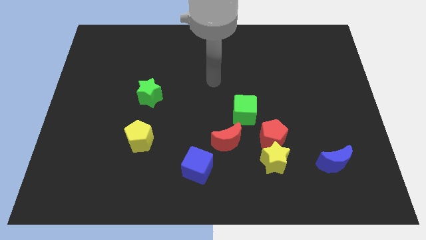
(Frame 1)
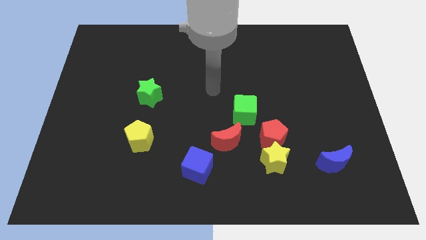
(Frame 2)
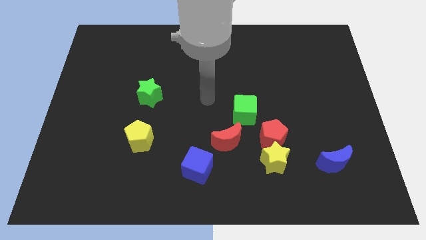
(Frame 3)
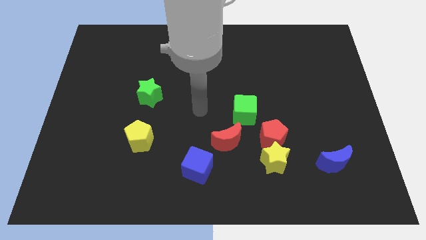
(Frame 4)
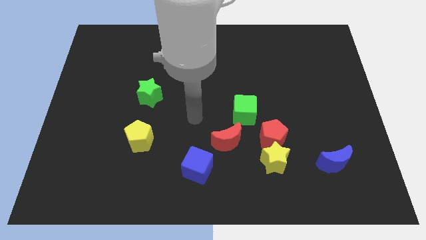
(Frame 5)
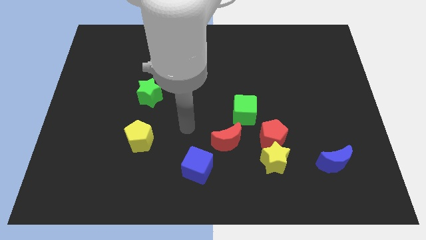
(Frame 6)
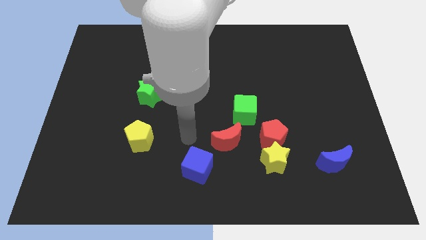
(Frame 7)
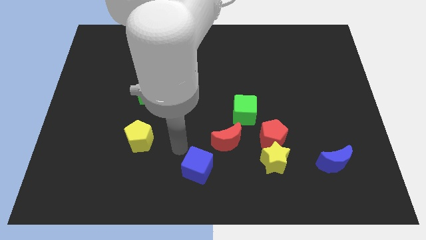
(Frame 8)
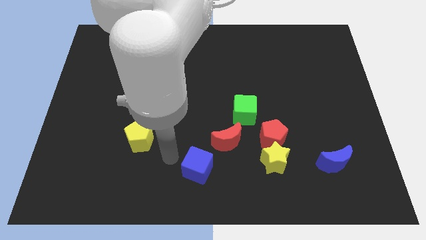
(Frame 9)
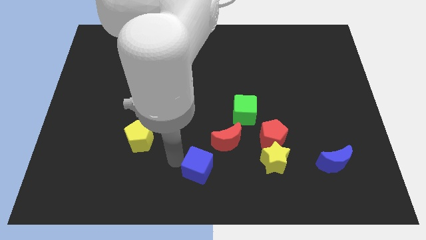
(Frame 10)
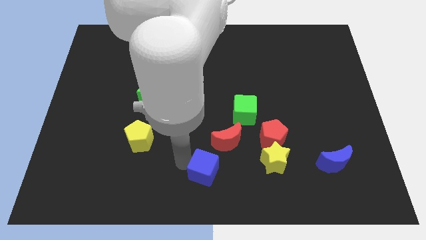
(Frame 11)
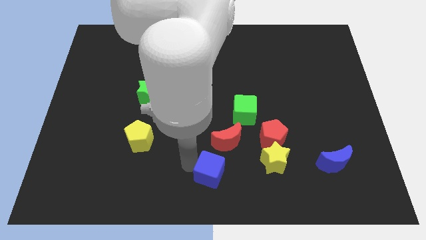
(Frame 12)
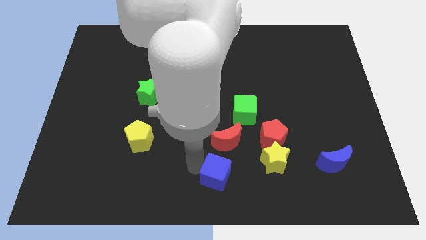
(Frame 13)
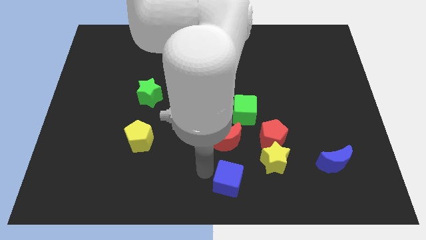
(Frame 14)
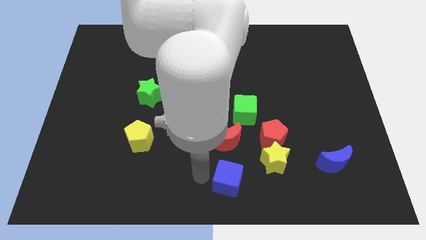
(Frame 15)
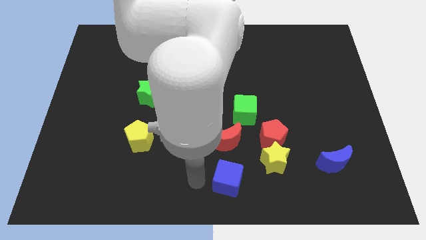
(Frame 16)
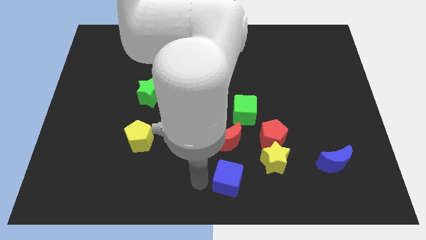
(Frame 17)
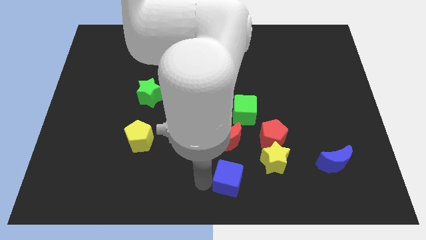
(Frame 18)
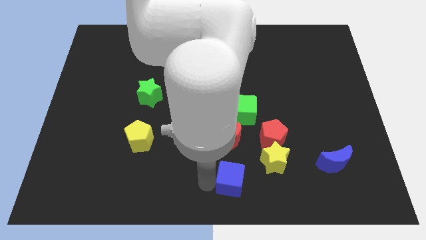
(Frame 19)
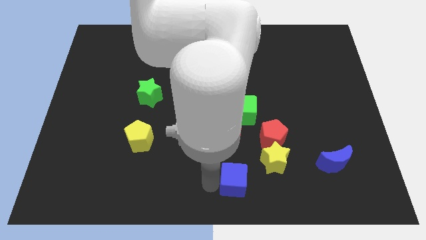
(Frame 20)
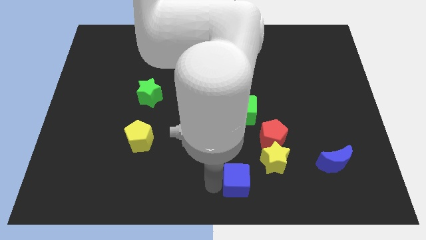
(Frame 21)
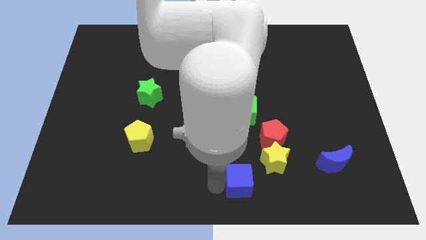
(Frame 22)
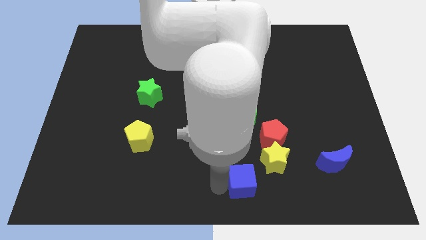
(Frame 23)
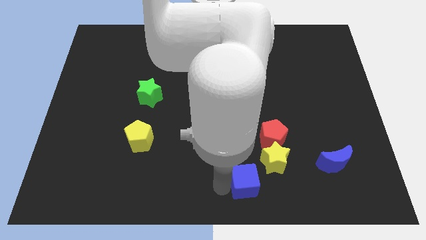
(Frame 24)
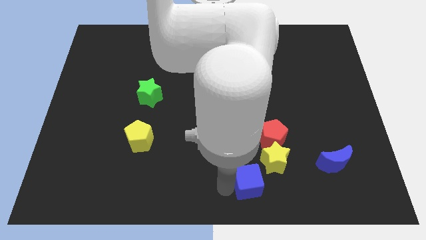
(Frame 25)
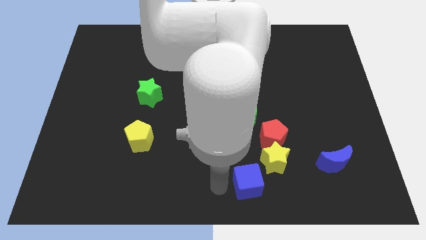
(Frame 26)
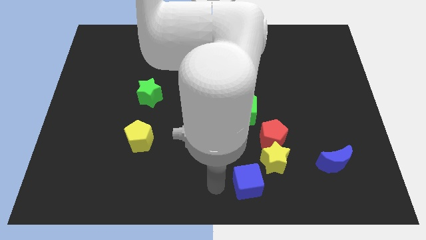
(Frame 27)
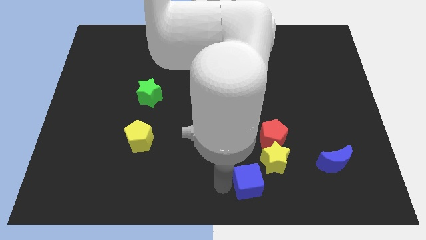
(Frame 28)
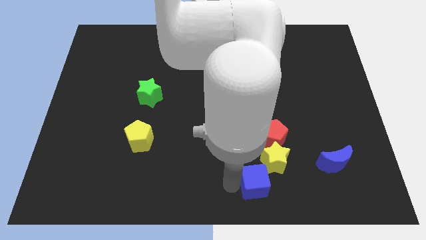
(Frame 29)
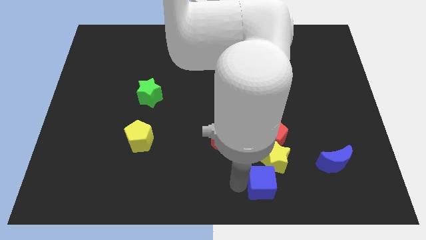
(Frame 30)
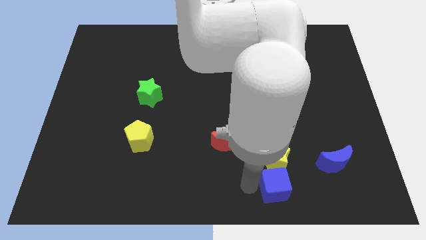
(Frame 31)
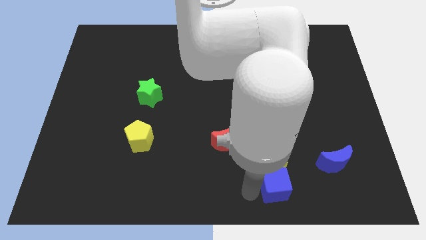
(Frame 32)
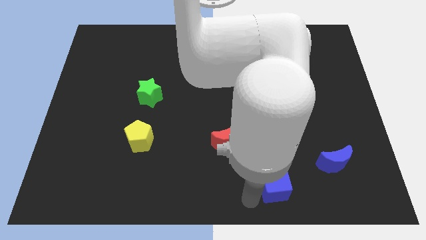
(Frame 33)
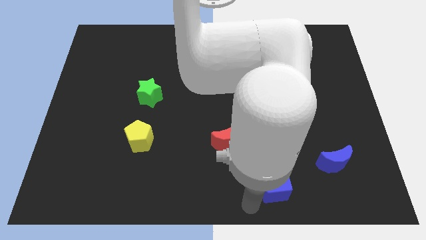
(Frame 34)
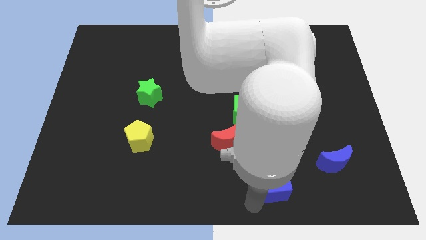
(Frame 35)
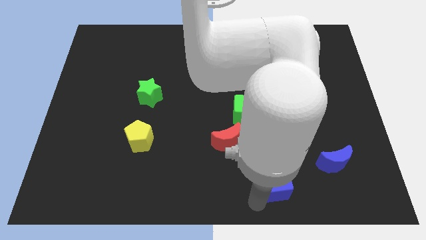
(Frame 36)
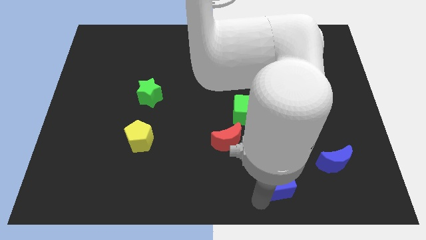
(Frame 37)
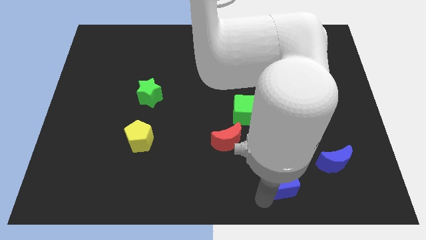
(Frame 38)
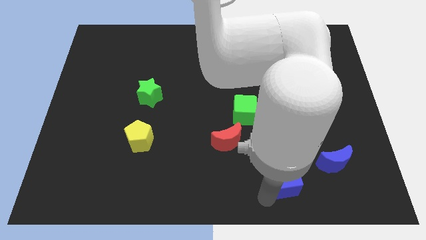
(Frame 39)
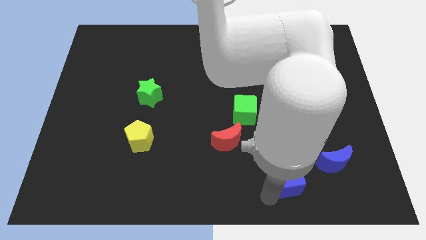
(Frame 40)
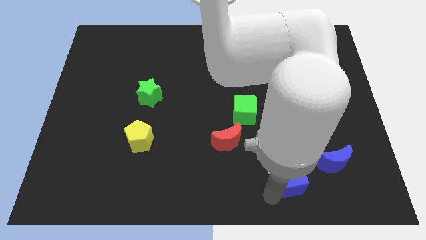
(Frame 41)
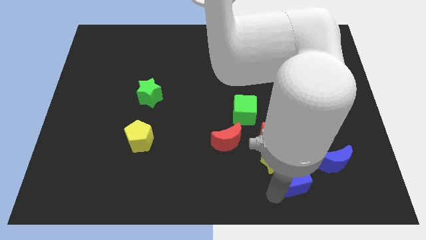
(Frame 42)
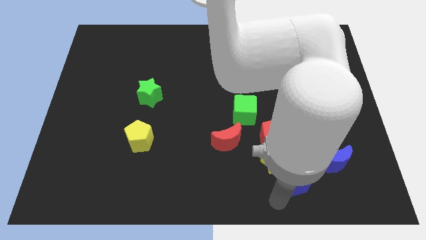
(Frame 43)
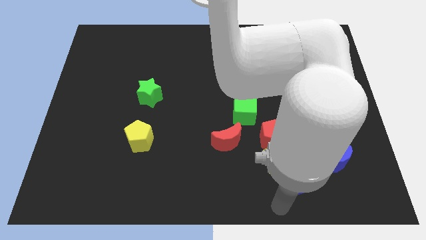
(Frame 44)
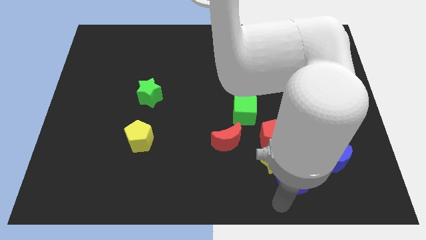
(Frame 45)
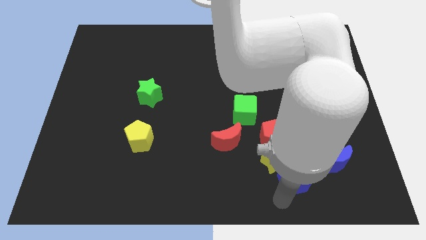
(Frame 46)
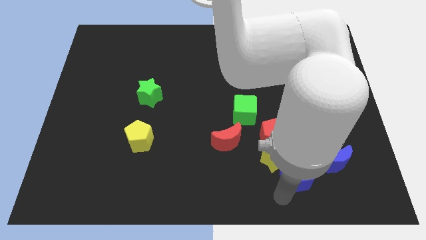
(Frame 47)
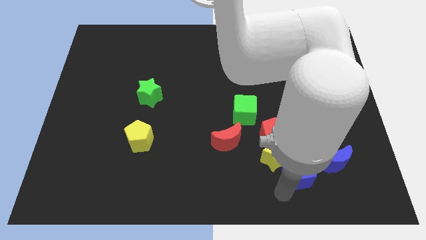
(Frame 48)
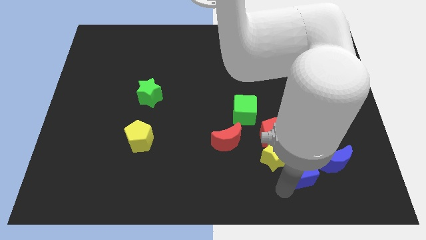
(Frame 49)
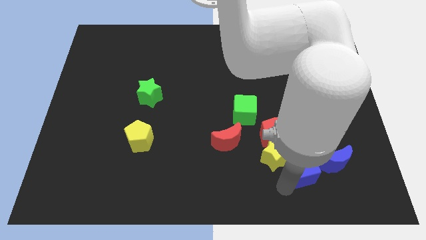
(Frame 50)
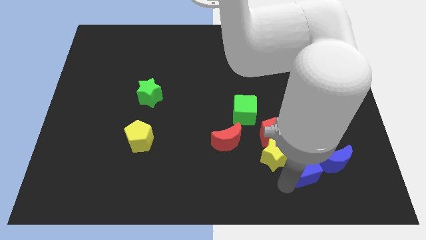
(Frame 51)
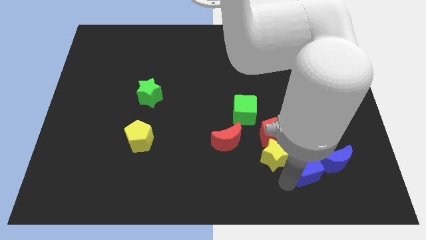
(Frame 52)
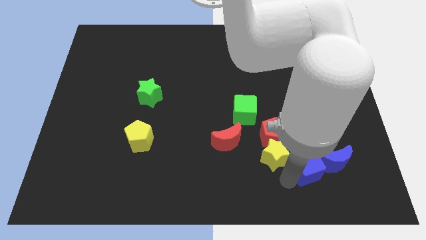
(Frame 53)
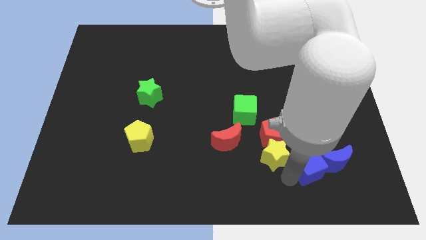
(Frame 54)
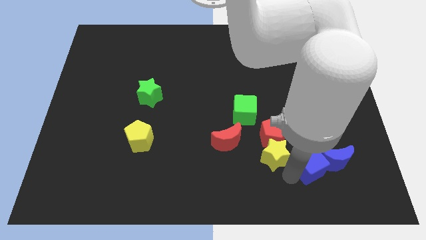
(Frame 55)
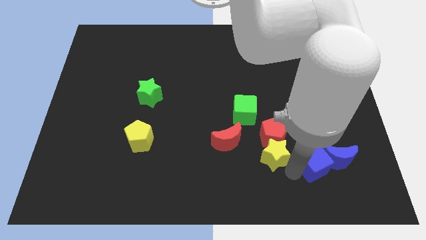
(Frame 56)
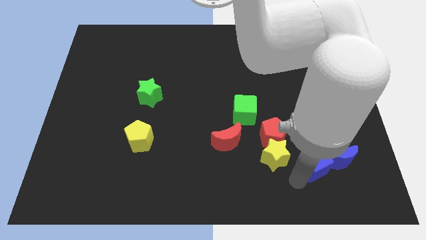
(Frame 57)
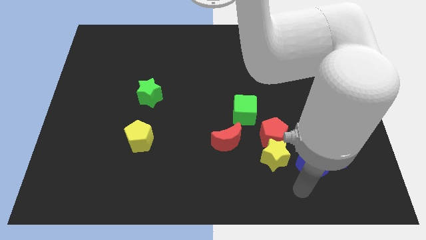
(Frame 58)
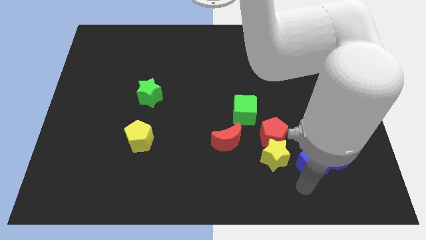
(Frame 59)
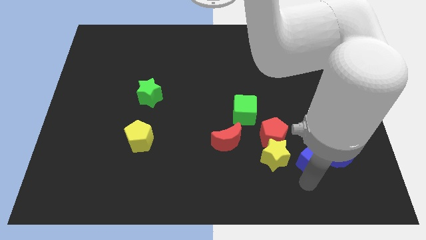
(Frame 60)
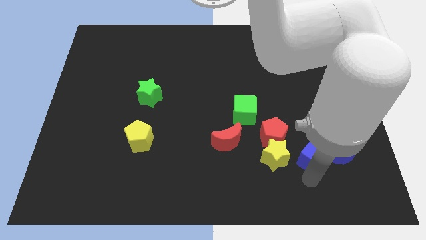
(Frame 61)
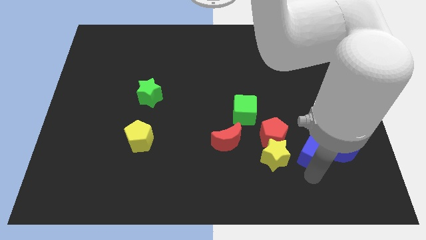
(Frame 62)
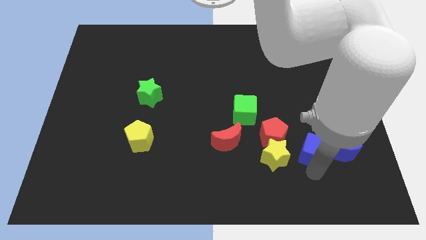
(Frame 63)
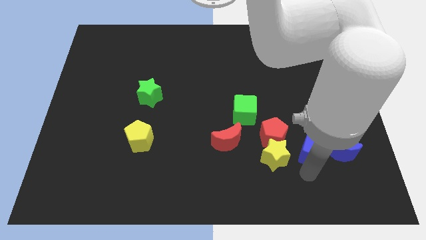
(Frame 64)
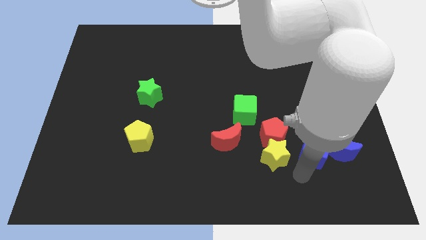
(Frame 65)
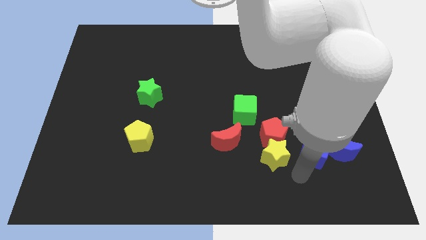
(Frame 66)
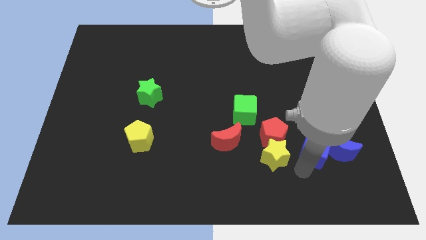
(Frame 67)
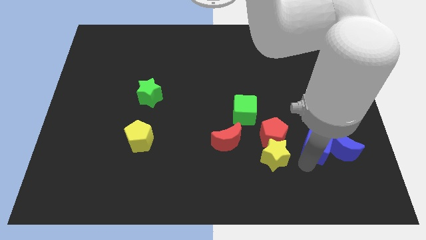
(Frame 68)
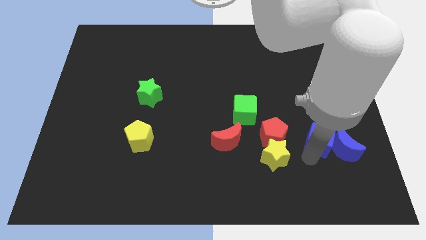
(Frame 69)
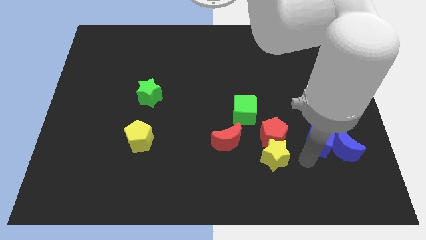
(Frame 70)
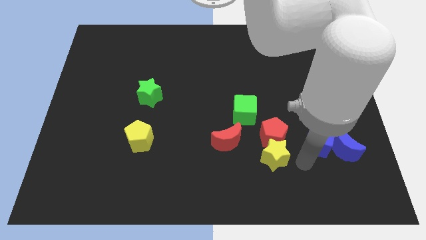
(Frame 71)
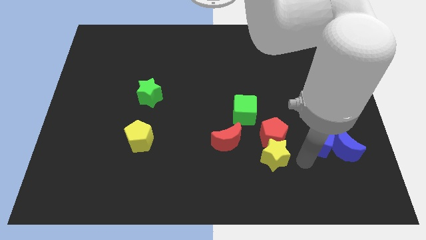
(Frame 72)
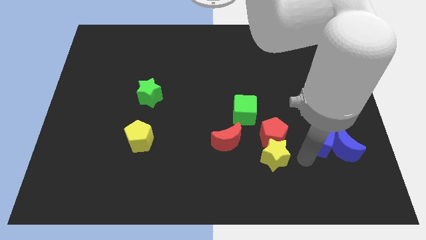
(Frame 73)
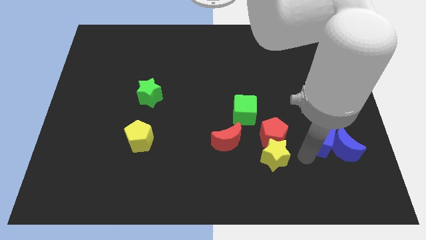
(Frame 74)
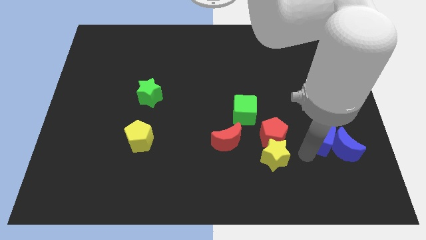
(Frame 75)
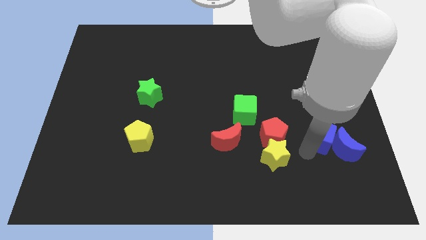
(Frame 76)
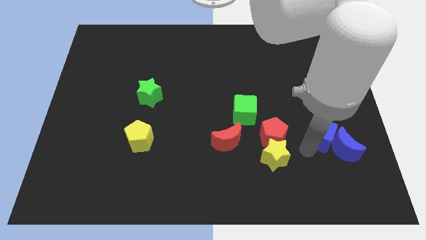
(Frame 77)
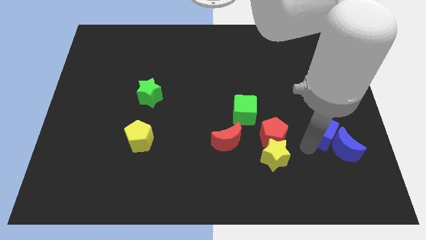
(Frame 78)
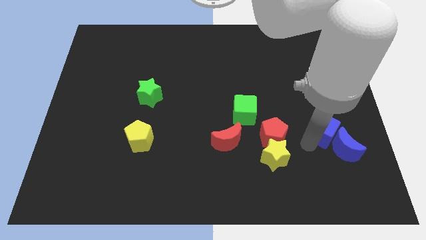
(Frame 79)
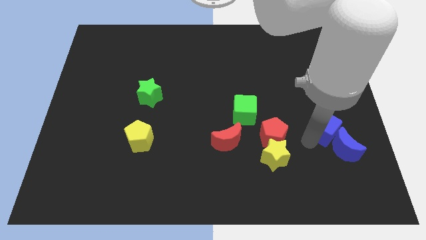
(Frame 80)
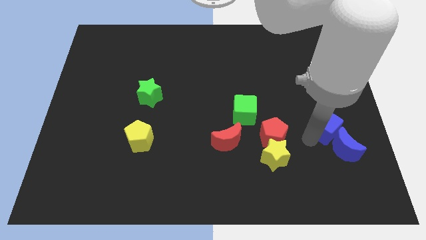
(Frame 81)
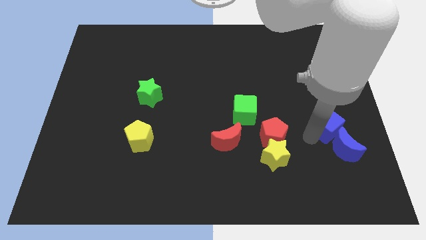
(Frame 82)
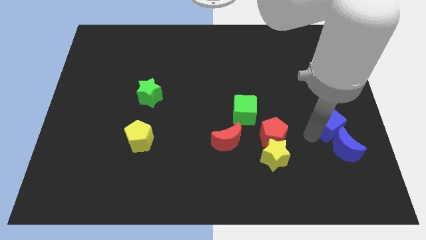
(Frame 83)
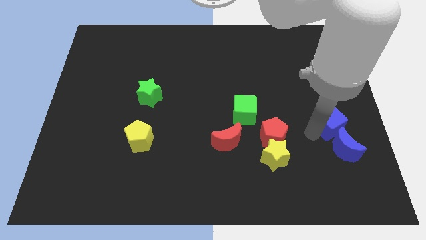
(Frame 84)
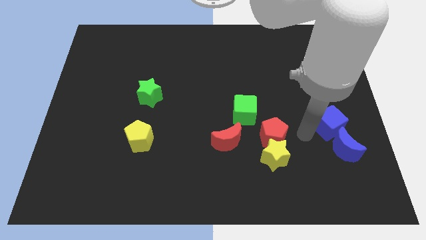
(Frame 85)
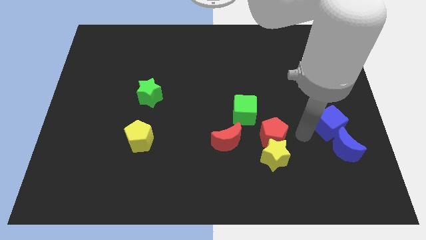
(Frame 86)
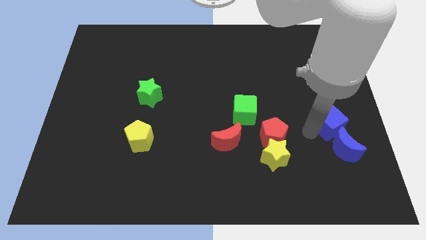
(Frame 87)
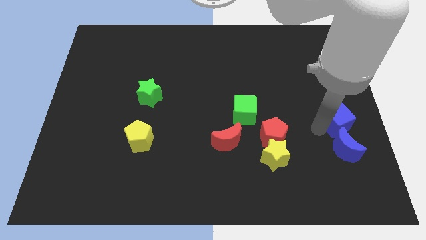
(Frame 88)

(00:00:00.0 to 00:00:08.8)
push the blue cube to the right side of the board
